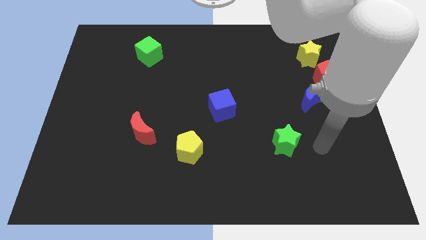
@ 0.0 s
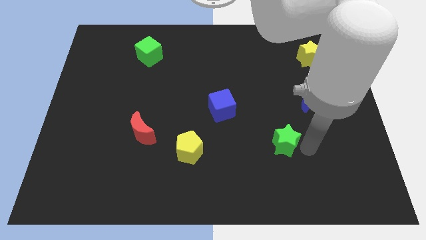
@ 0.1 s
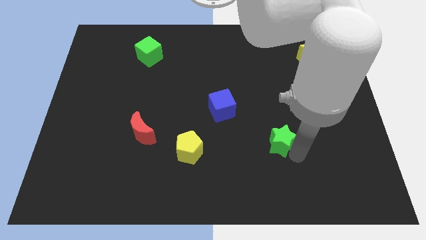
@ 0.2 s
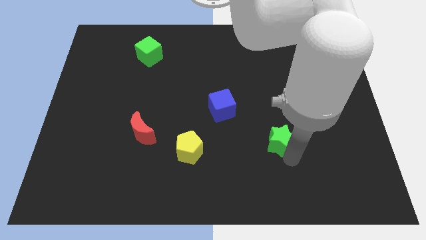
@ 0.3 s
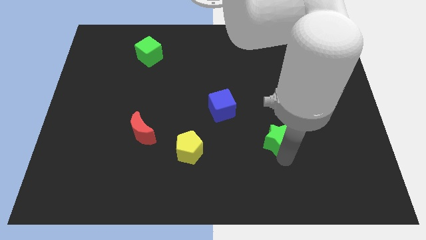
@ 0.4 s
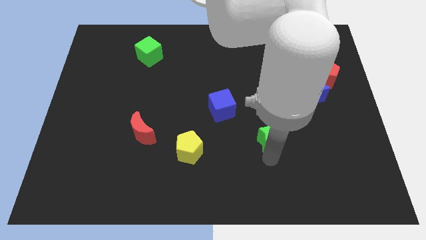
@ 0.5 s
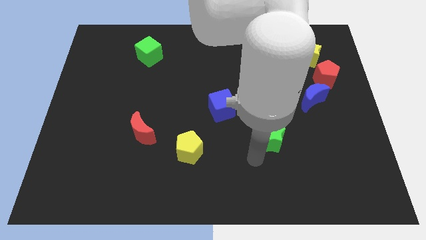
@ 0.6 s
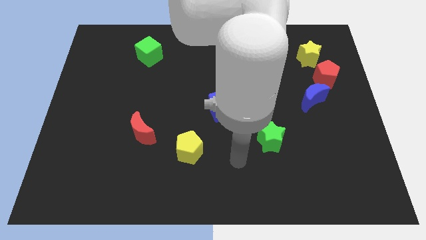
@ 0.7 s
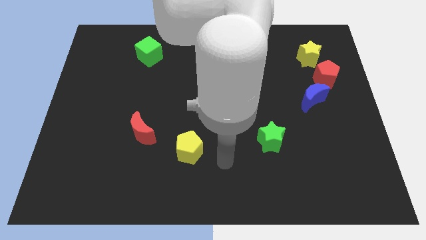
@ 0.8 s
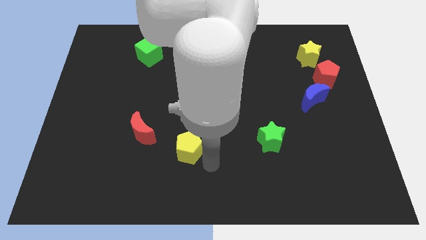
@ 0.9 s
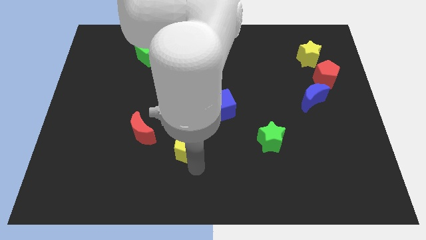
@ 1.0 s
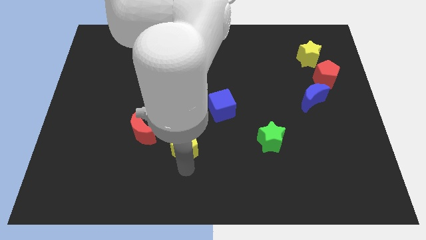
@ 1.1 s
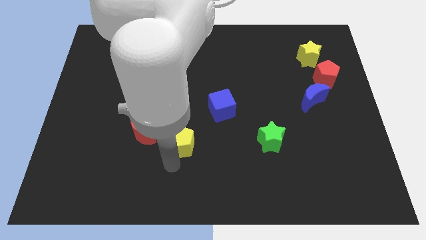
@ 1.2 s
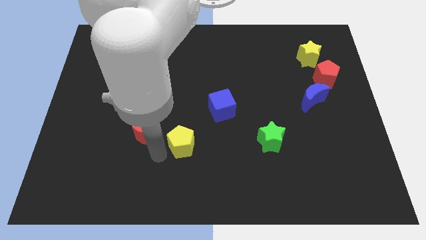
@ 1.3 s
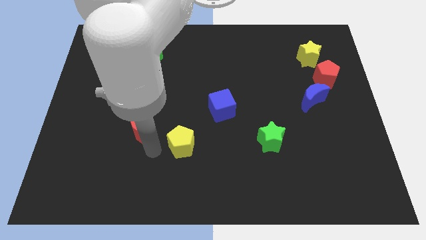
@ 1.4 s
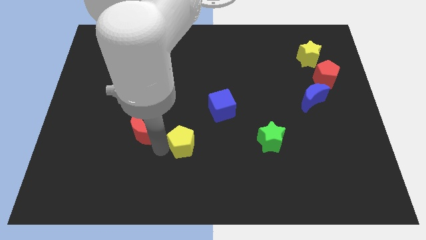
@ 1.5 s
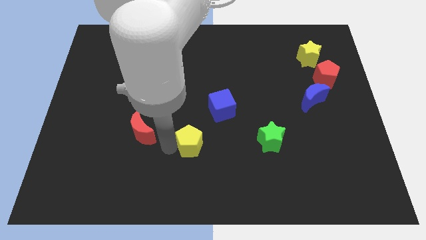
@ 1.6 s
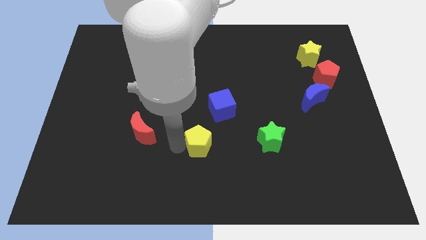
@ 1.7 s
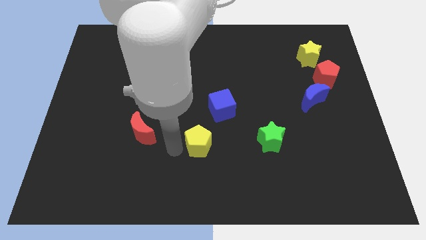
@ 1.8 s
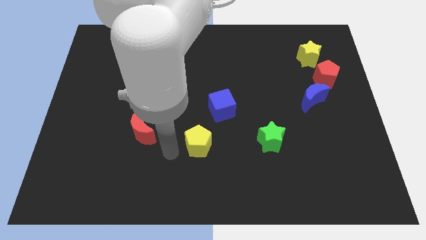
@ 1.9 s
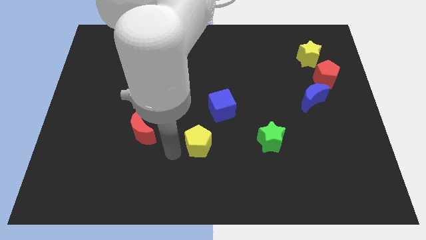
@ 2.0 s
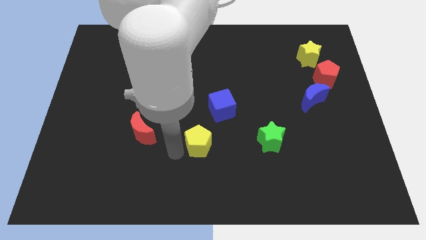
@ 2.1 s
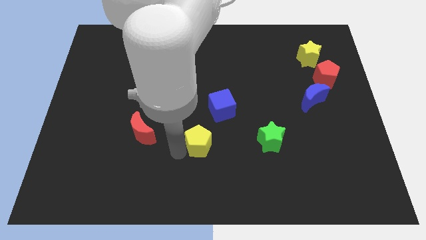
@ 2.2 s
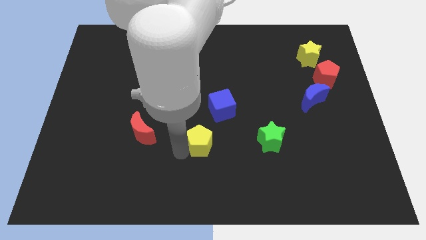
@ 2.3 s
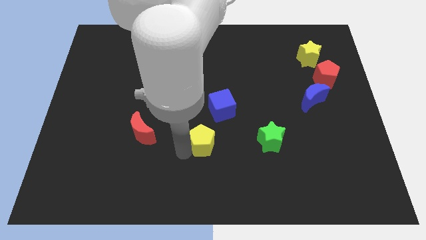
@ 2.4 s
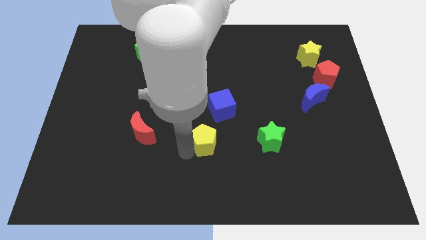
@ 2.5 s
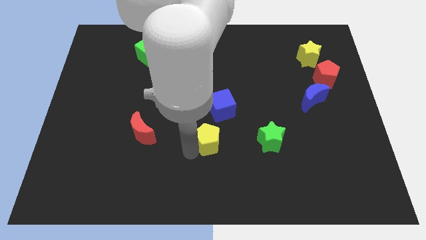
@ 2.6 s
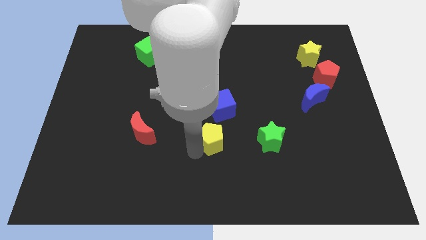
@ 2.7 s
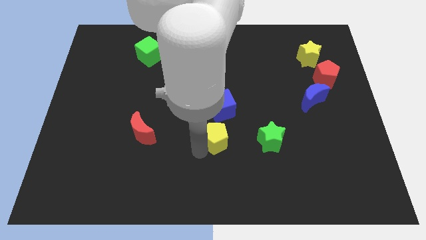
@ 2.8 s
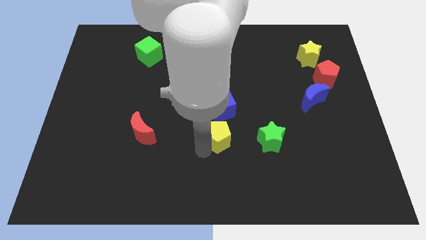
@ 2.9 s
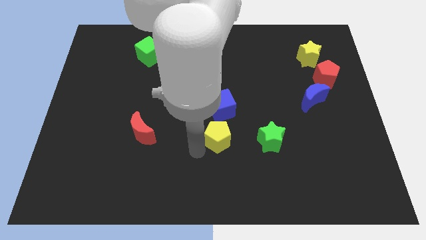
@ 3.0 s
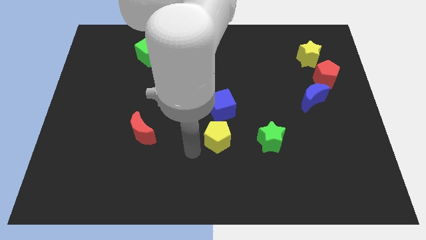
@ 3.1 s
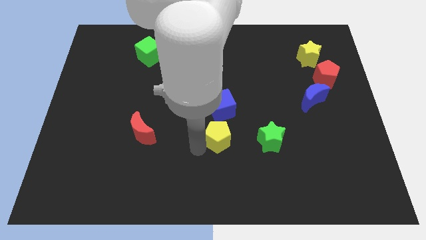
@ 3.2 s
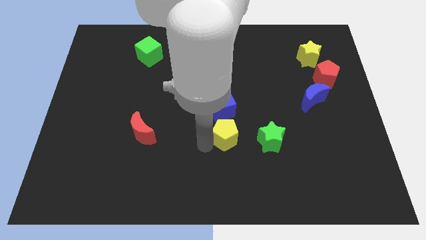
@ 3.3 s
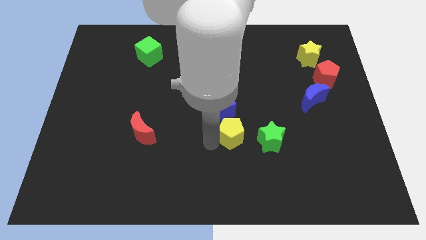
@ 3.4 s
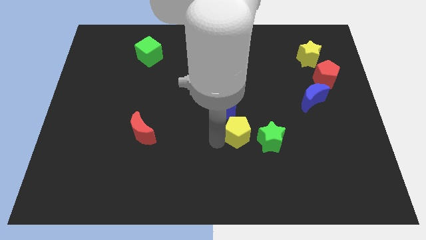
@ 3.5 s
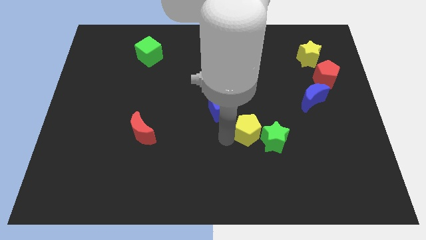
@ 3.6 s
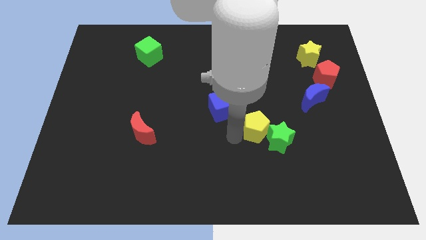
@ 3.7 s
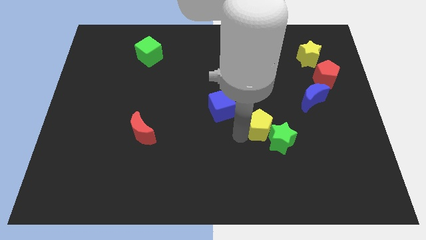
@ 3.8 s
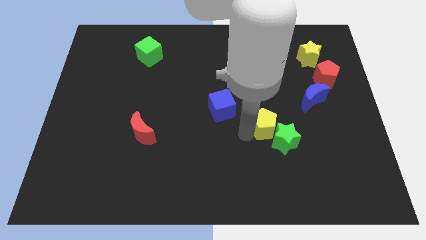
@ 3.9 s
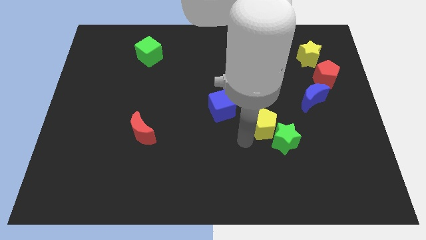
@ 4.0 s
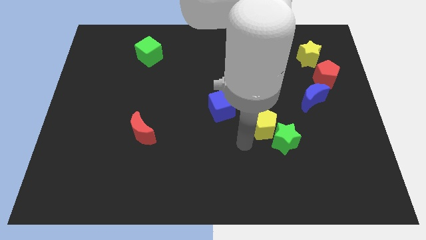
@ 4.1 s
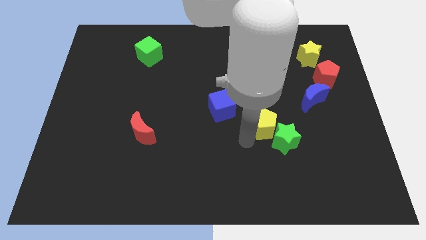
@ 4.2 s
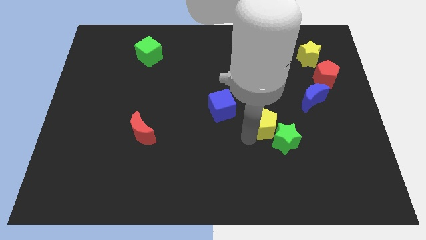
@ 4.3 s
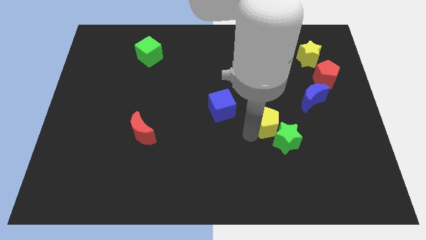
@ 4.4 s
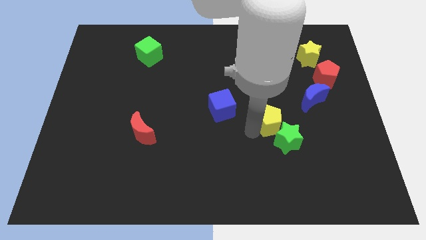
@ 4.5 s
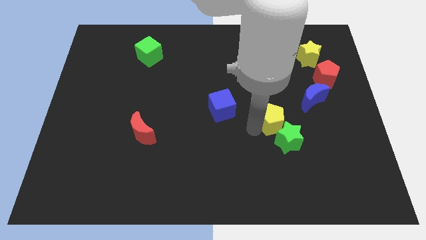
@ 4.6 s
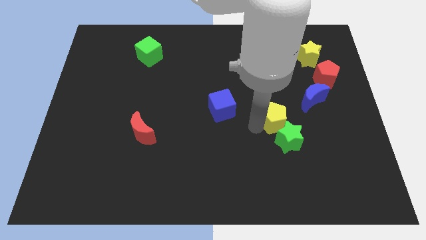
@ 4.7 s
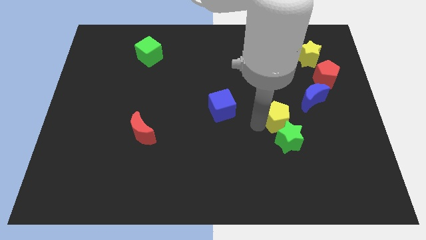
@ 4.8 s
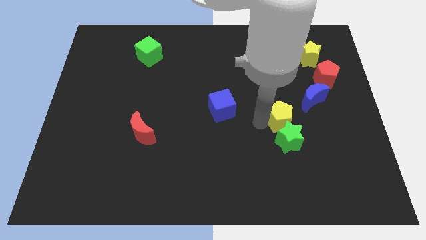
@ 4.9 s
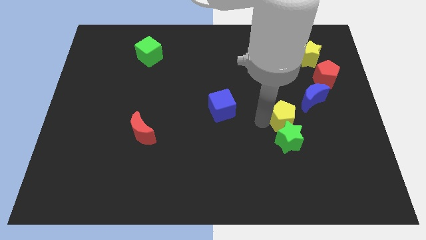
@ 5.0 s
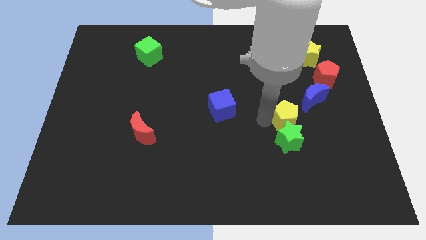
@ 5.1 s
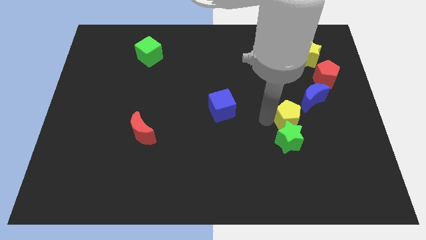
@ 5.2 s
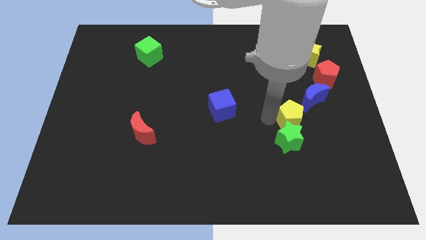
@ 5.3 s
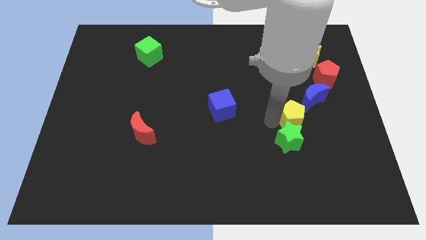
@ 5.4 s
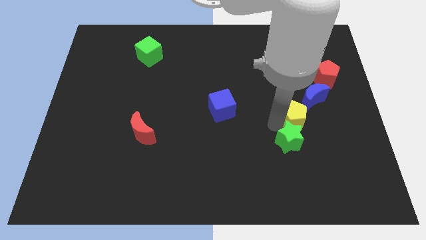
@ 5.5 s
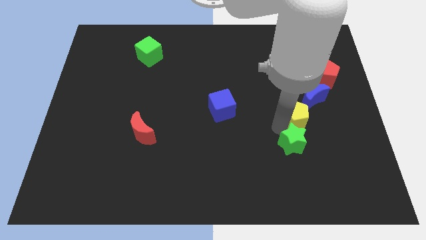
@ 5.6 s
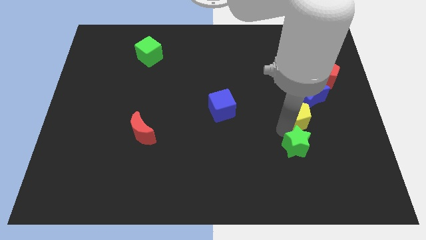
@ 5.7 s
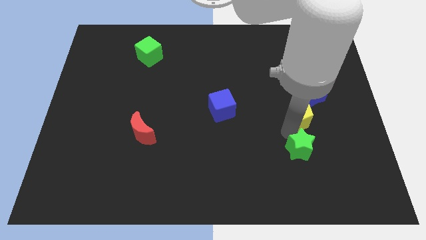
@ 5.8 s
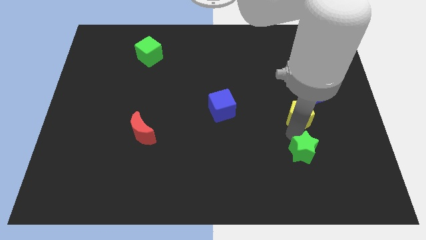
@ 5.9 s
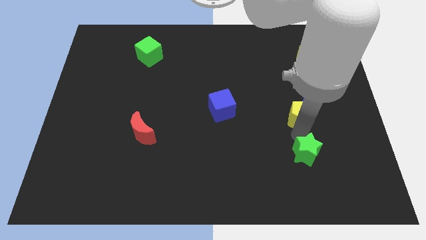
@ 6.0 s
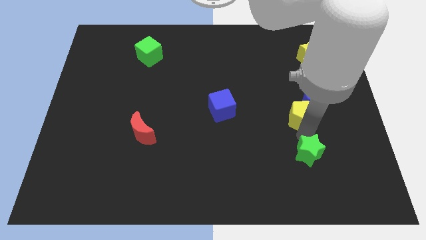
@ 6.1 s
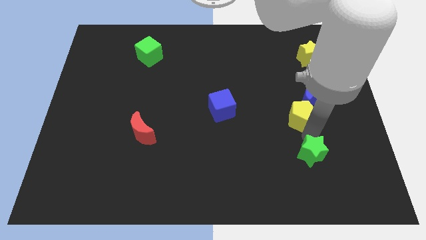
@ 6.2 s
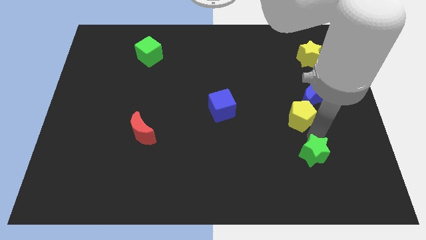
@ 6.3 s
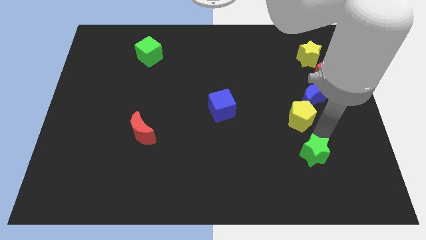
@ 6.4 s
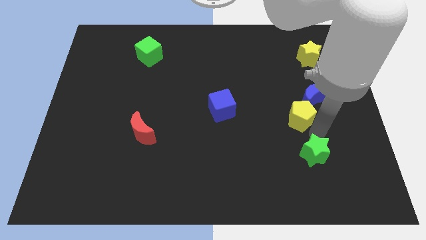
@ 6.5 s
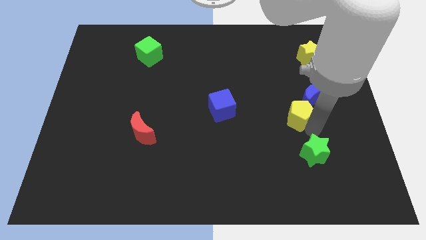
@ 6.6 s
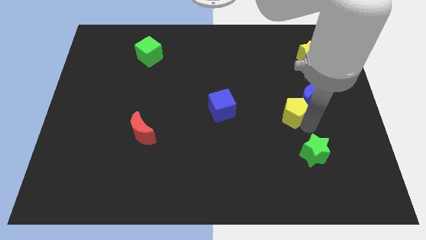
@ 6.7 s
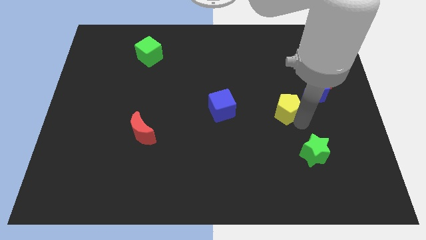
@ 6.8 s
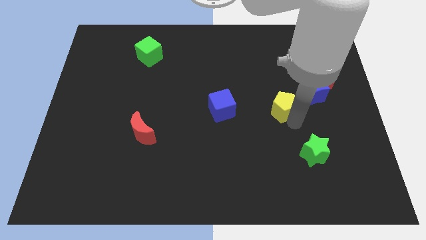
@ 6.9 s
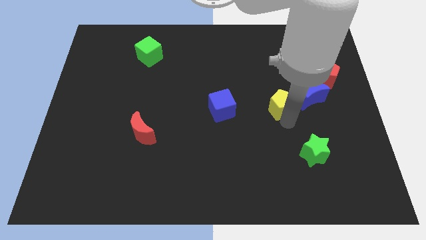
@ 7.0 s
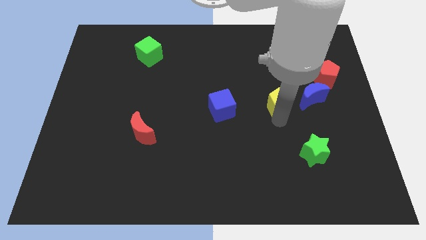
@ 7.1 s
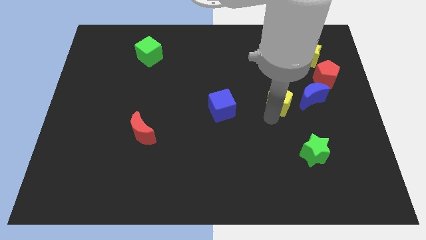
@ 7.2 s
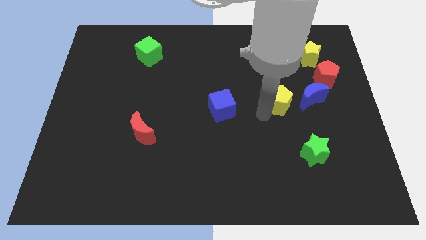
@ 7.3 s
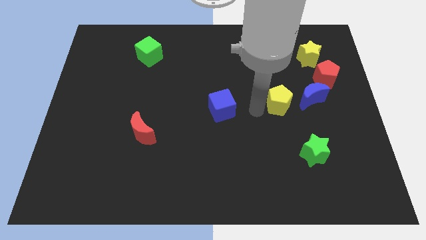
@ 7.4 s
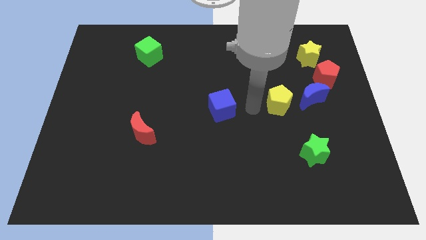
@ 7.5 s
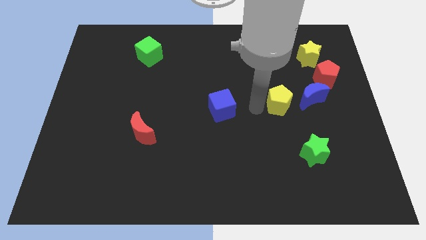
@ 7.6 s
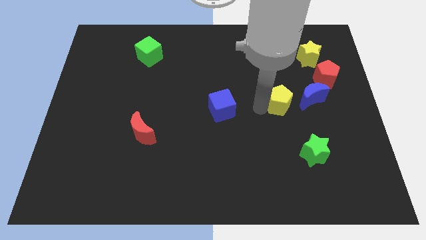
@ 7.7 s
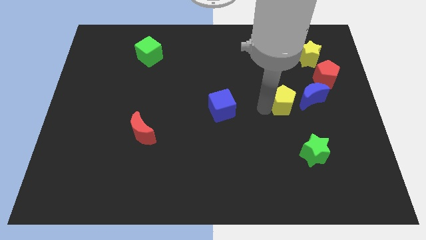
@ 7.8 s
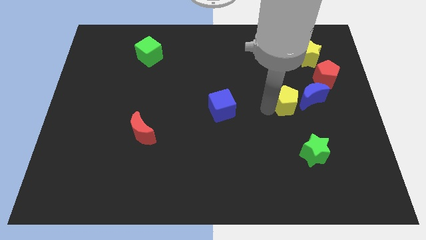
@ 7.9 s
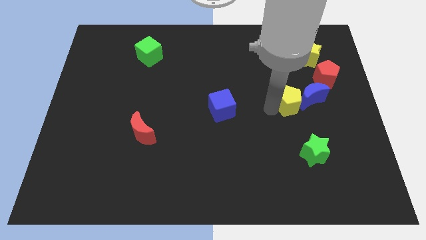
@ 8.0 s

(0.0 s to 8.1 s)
slide the yellow pentagon close to the blue moon
